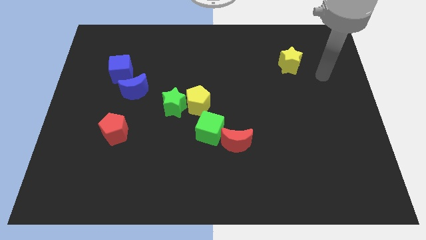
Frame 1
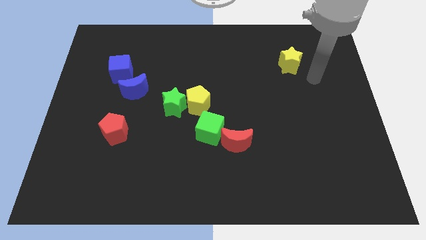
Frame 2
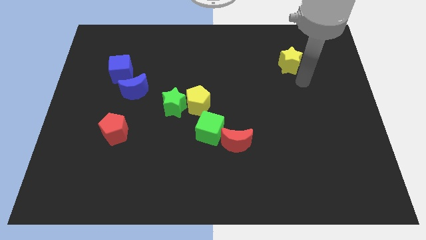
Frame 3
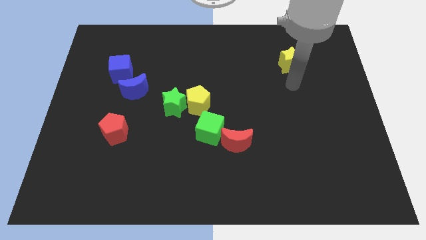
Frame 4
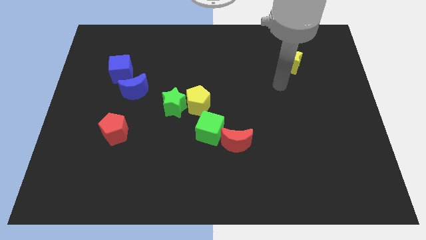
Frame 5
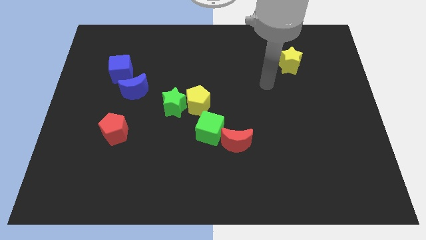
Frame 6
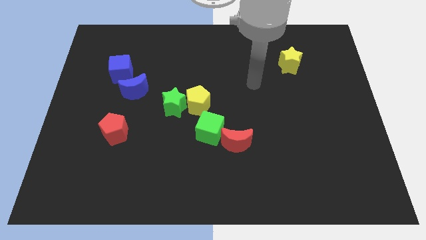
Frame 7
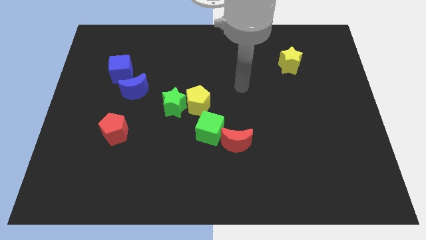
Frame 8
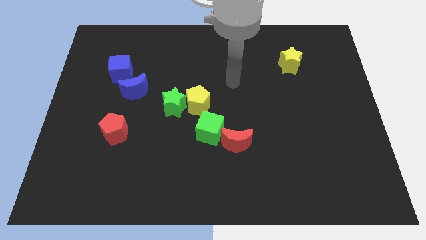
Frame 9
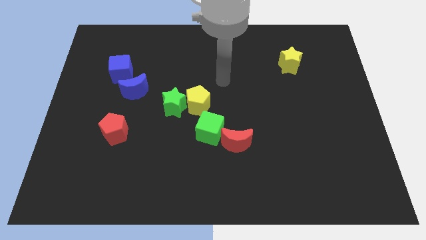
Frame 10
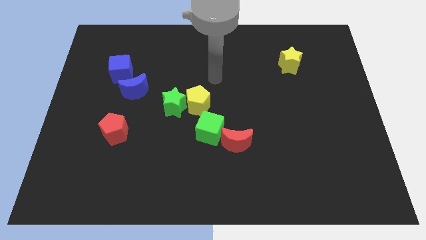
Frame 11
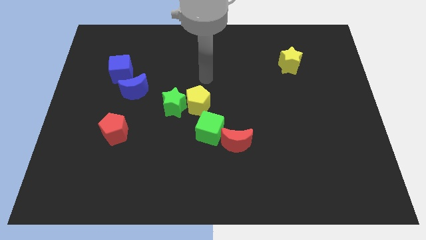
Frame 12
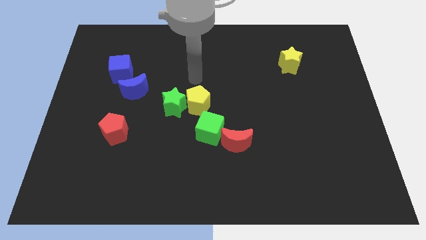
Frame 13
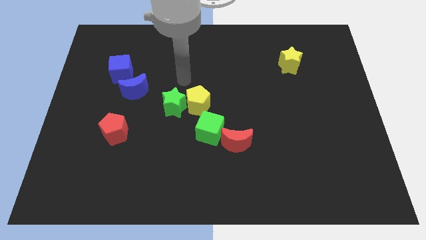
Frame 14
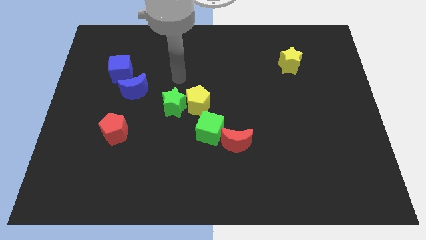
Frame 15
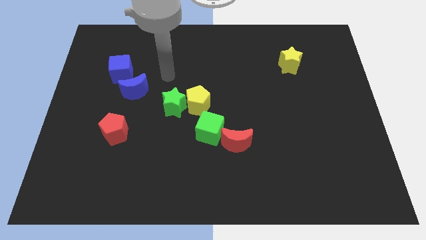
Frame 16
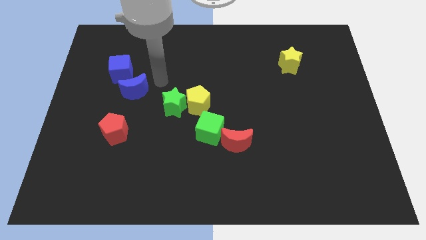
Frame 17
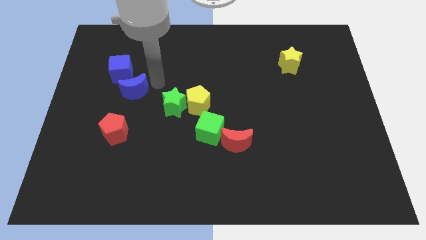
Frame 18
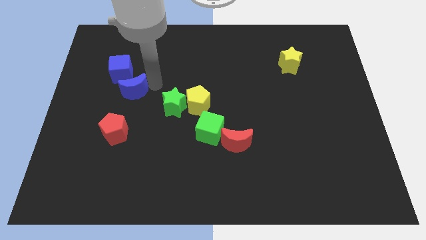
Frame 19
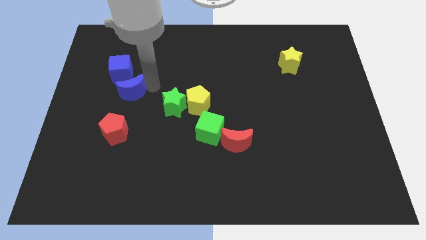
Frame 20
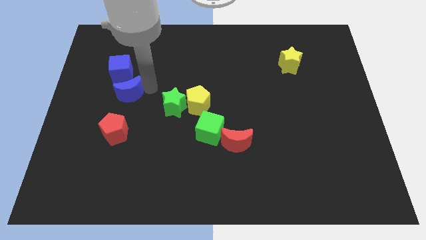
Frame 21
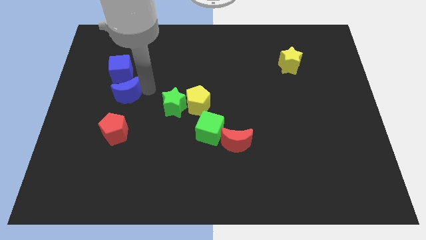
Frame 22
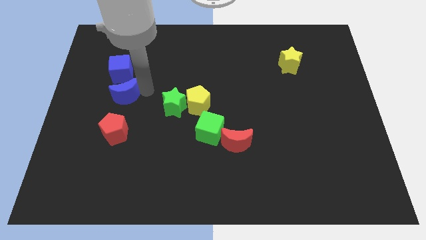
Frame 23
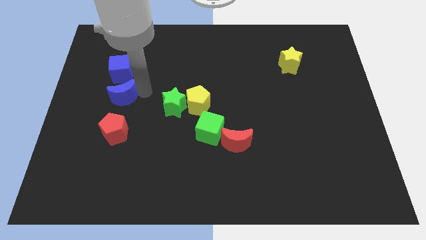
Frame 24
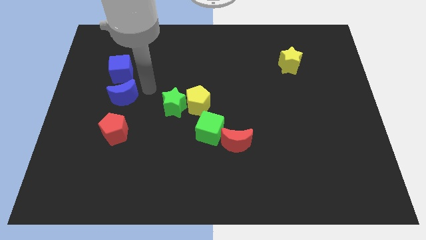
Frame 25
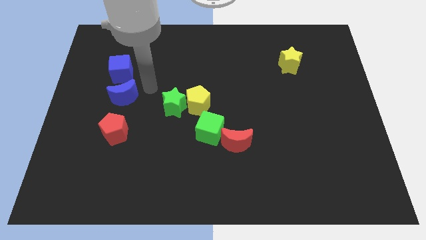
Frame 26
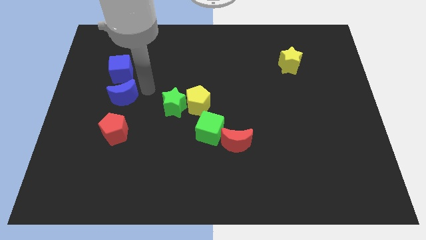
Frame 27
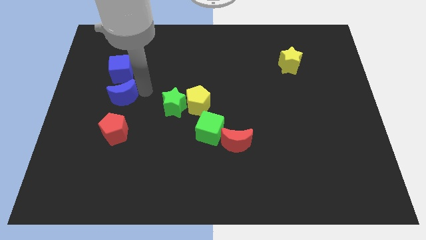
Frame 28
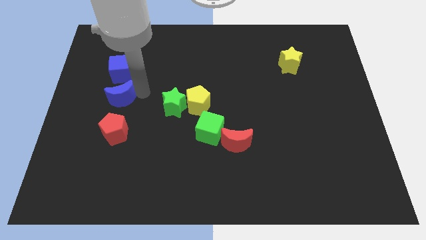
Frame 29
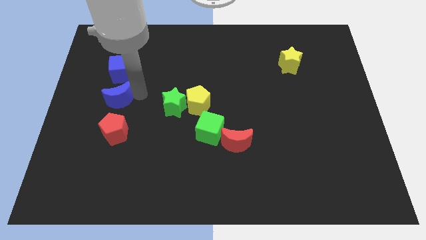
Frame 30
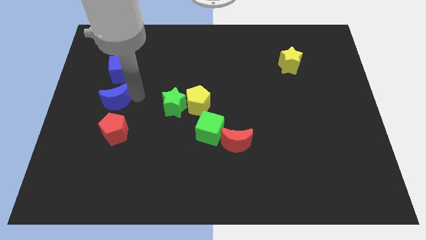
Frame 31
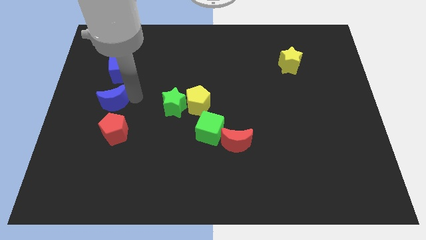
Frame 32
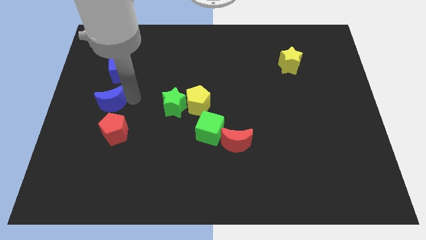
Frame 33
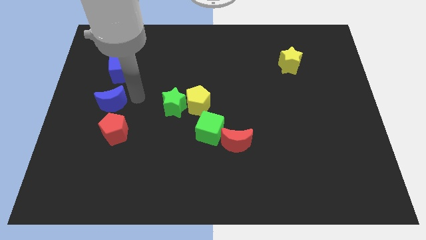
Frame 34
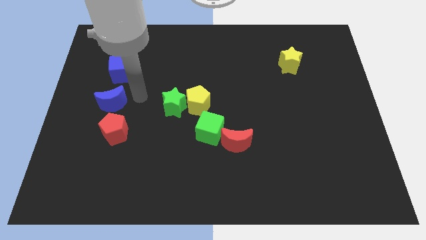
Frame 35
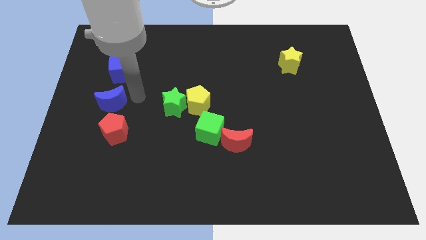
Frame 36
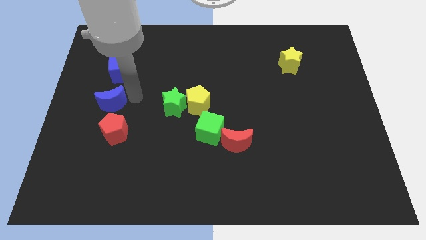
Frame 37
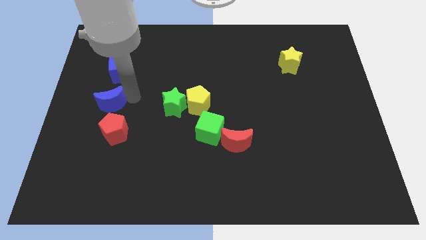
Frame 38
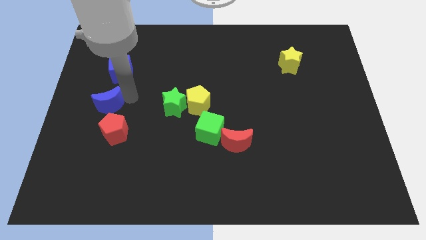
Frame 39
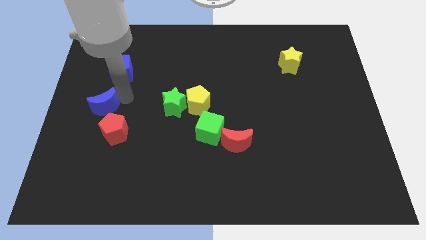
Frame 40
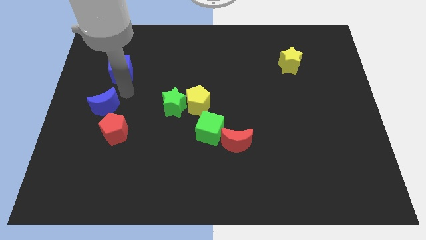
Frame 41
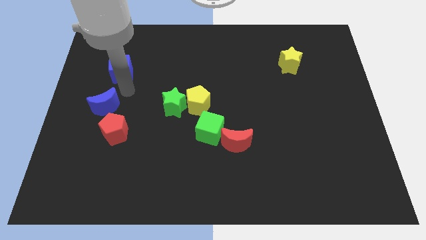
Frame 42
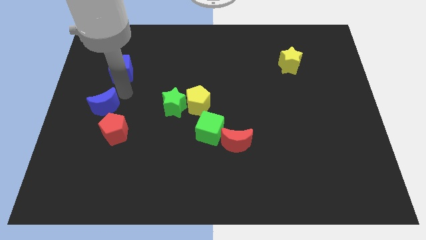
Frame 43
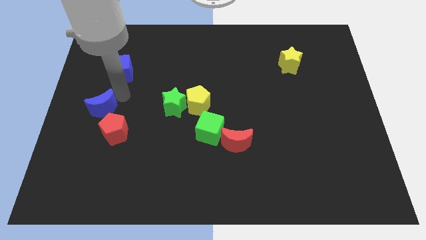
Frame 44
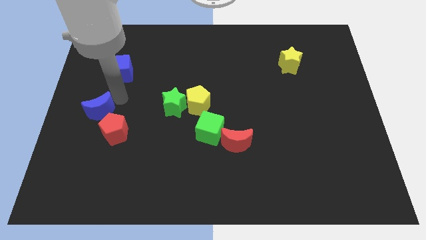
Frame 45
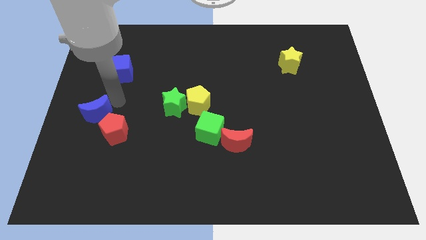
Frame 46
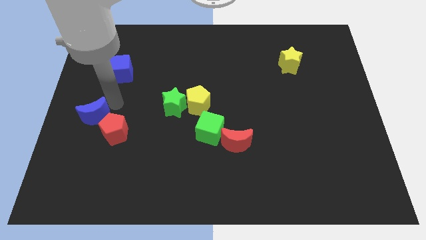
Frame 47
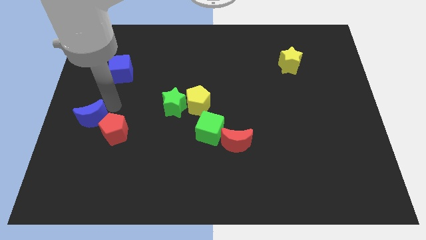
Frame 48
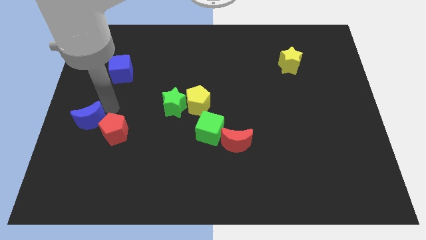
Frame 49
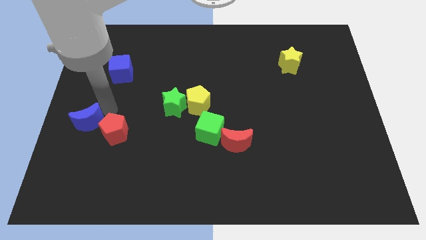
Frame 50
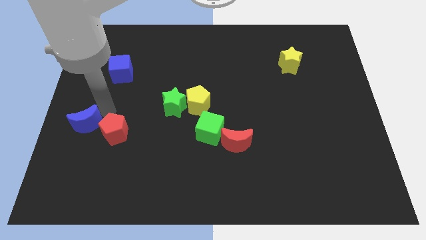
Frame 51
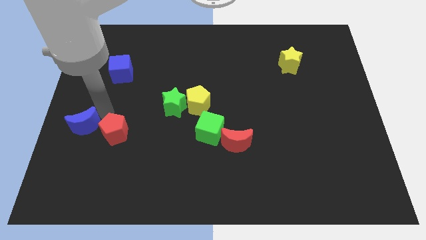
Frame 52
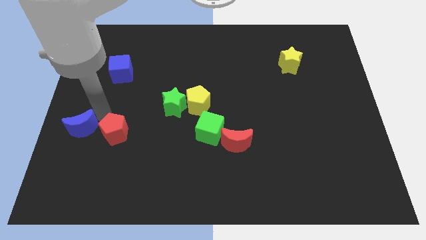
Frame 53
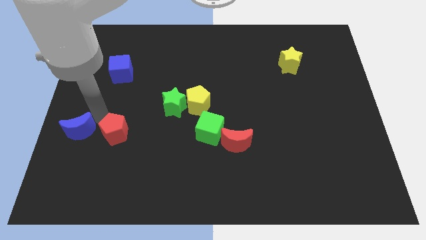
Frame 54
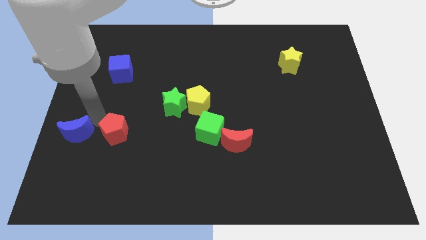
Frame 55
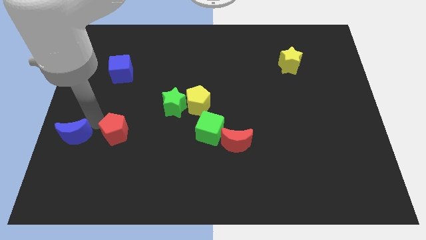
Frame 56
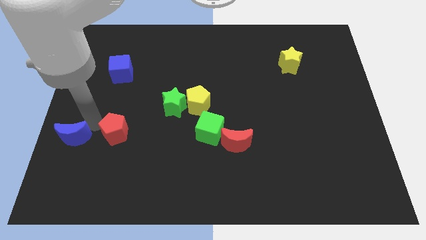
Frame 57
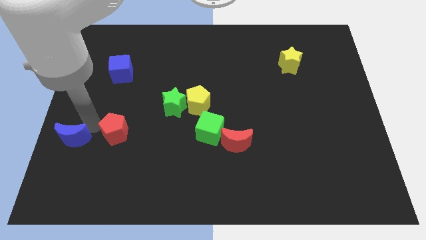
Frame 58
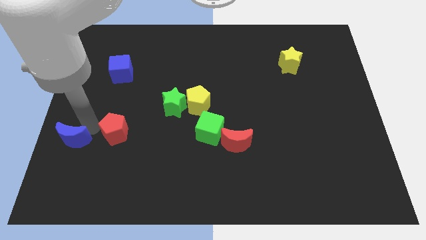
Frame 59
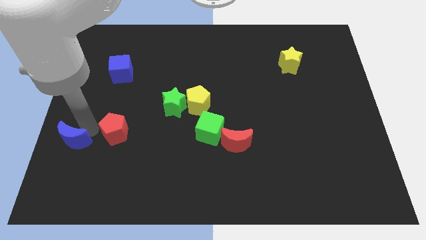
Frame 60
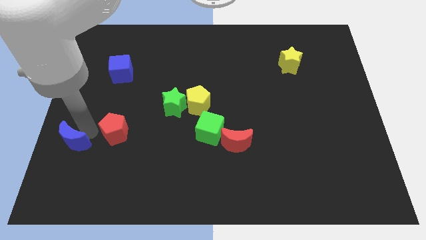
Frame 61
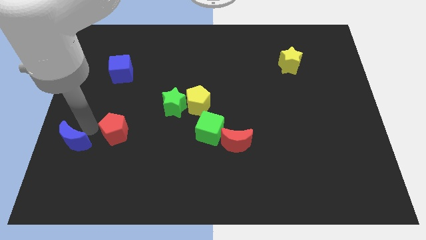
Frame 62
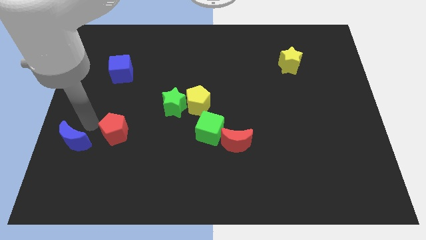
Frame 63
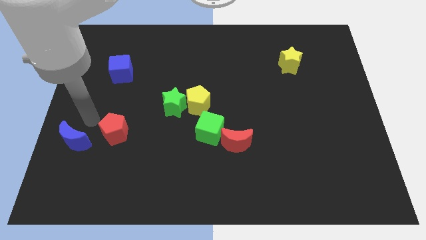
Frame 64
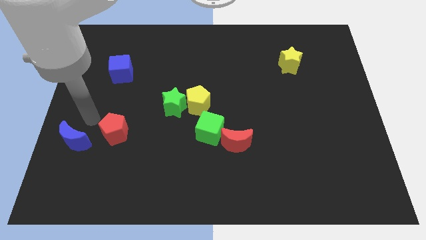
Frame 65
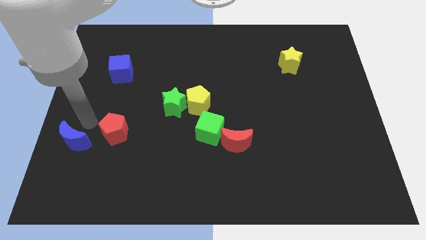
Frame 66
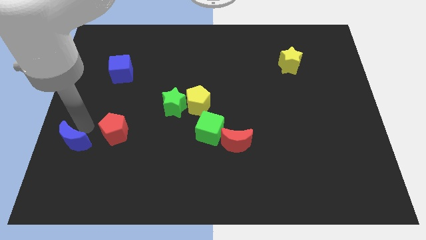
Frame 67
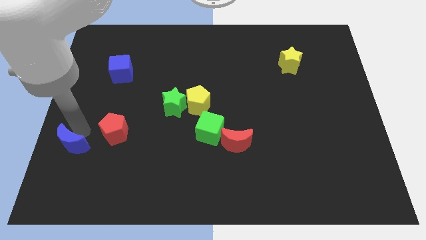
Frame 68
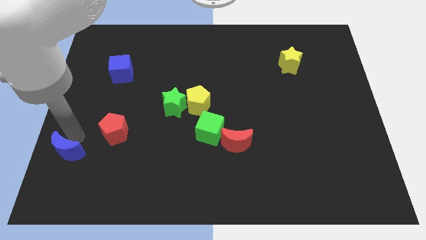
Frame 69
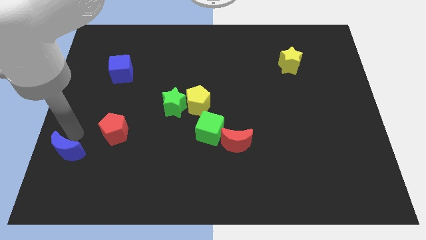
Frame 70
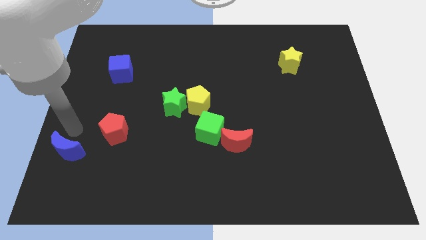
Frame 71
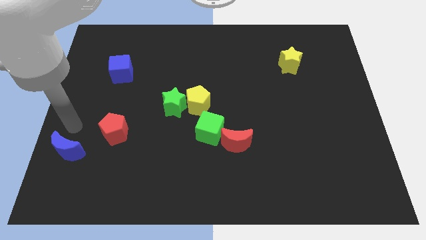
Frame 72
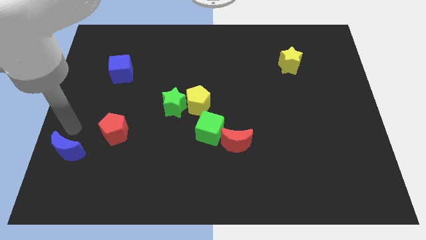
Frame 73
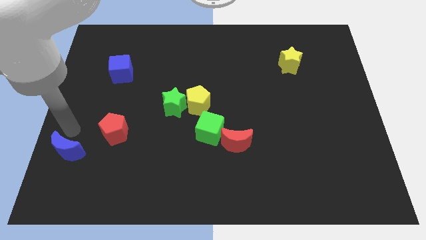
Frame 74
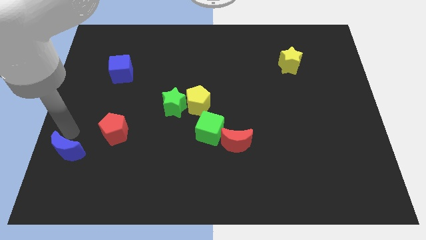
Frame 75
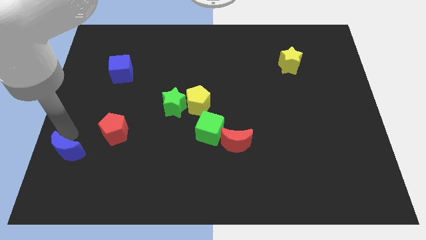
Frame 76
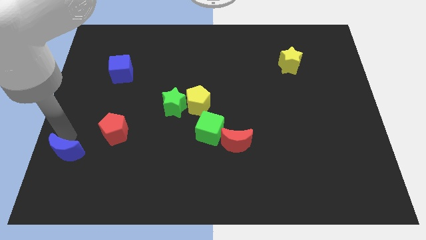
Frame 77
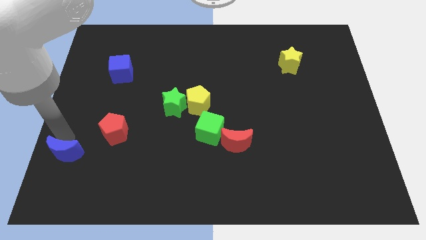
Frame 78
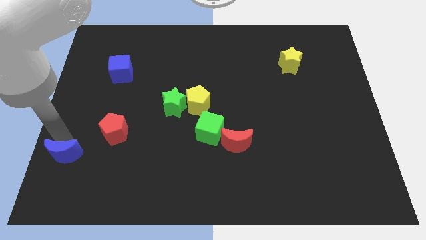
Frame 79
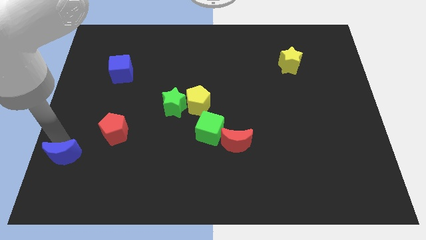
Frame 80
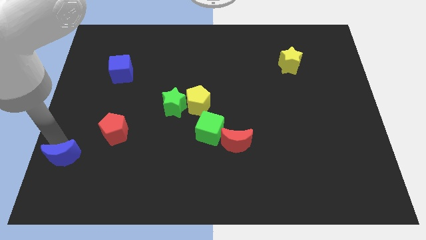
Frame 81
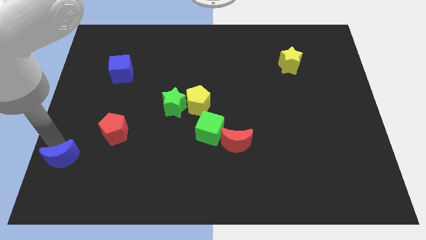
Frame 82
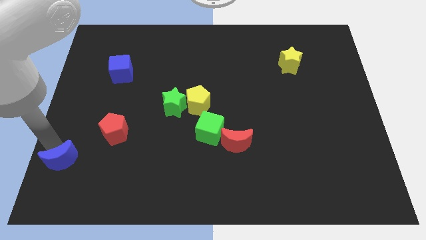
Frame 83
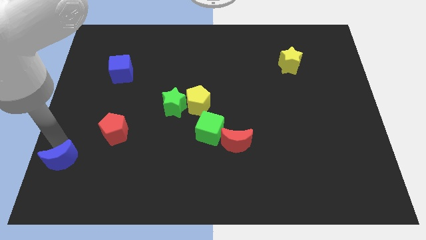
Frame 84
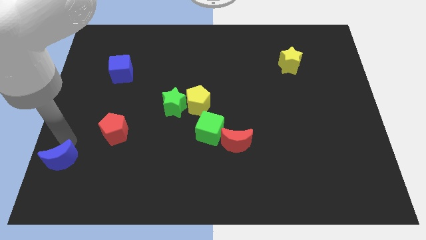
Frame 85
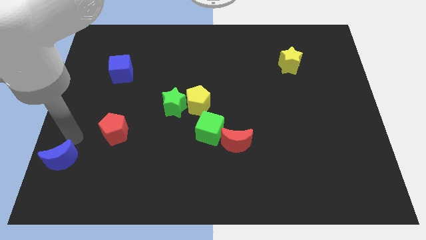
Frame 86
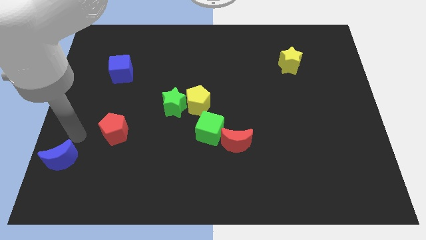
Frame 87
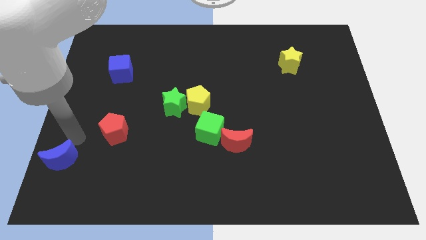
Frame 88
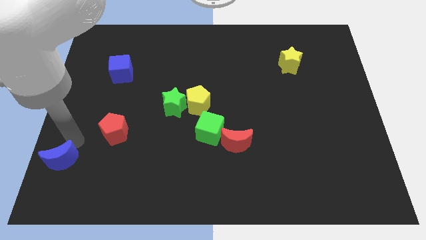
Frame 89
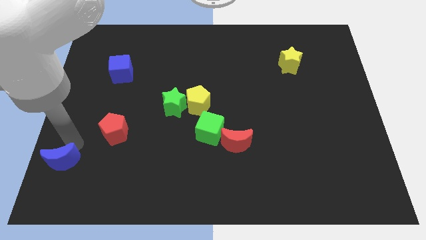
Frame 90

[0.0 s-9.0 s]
put the blue moon to the lower left corner
